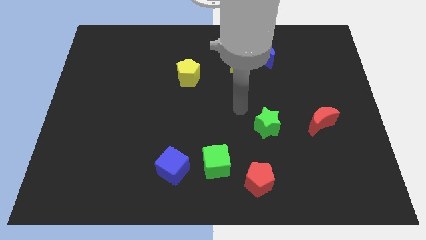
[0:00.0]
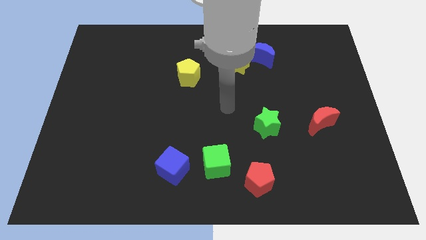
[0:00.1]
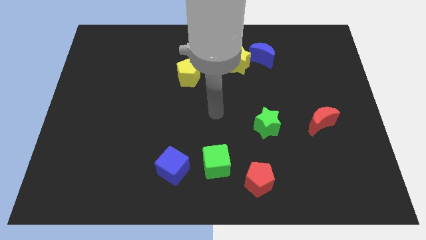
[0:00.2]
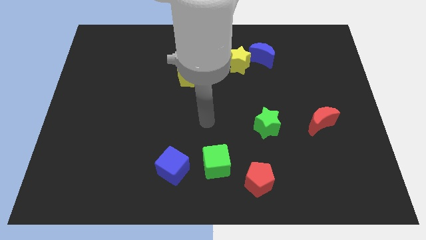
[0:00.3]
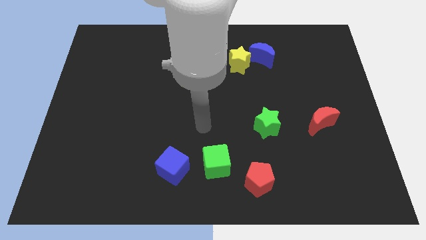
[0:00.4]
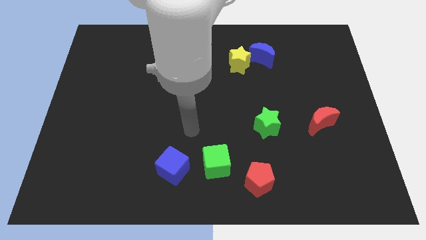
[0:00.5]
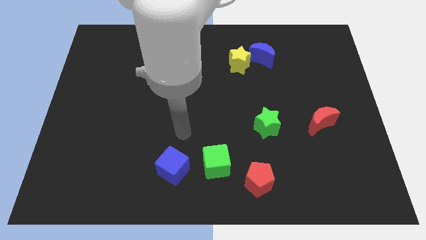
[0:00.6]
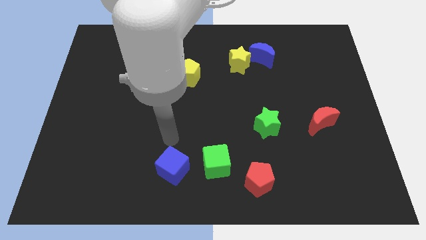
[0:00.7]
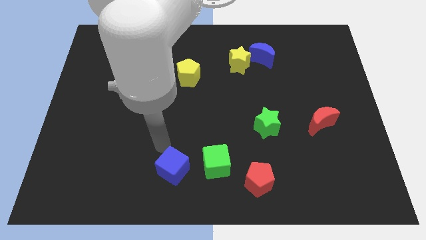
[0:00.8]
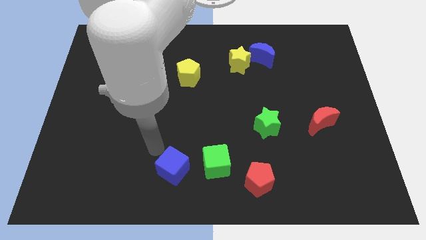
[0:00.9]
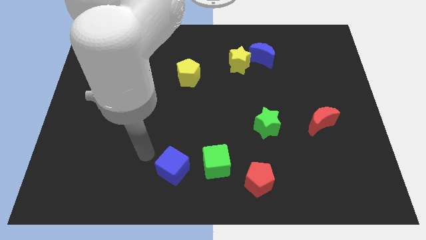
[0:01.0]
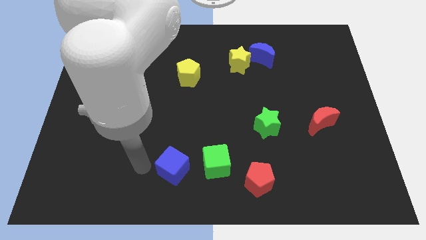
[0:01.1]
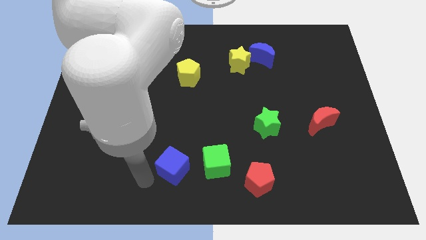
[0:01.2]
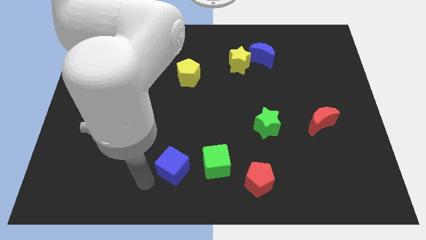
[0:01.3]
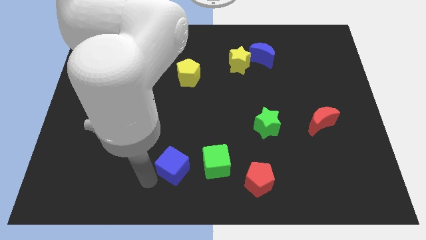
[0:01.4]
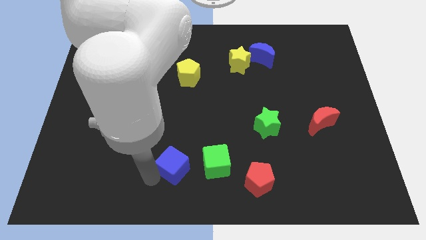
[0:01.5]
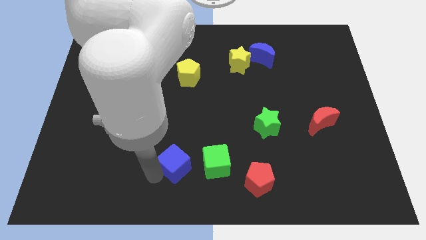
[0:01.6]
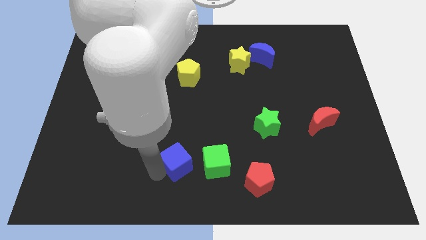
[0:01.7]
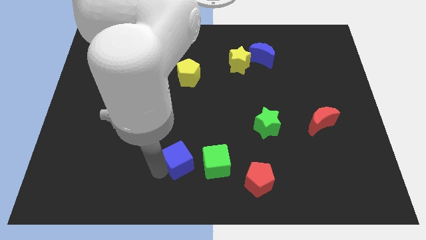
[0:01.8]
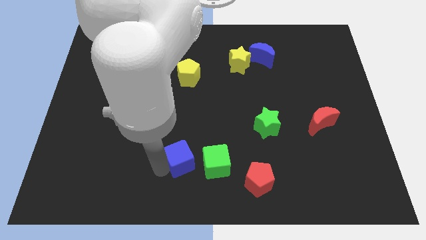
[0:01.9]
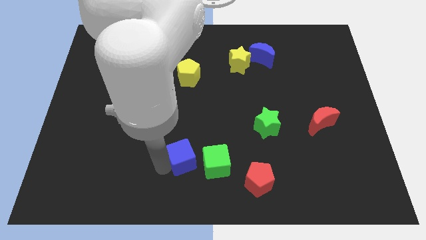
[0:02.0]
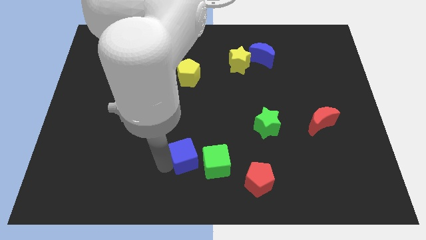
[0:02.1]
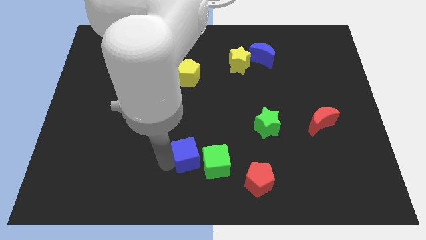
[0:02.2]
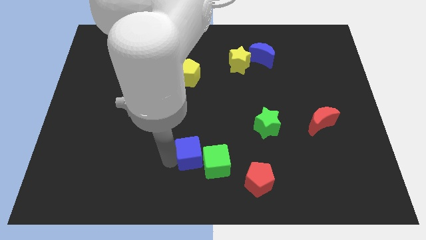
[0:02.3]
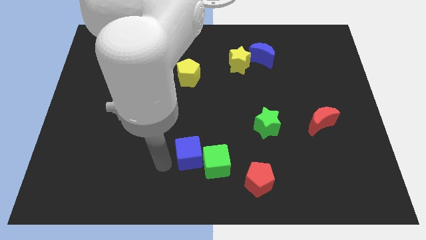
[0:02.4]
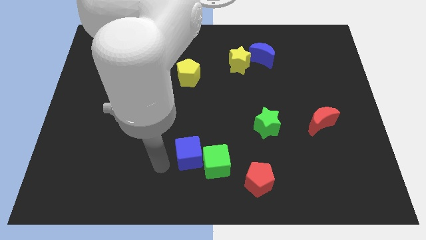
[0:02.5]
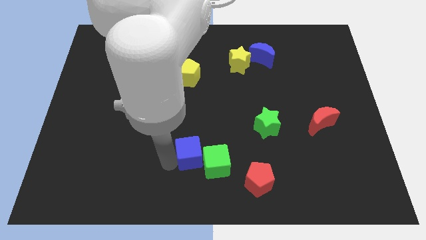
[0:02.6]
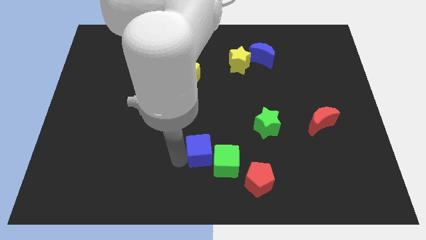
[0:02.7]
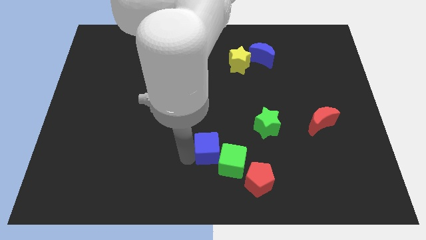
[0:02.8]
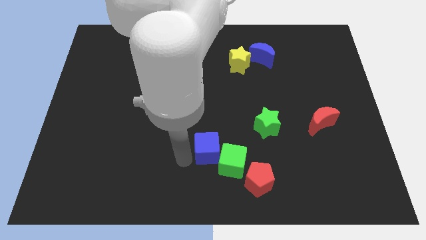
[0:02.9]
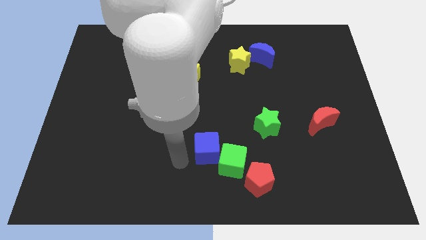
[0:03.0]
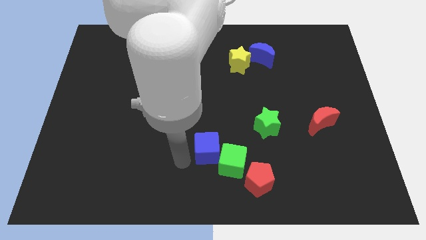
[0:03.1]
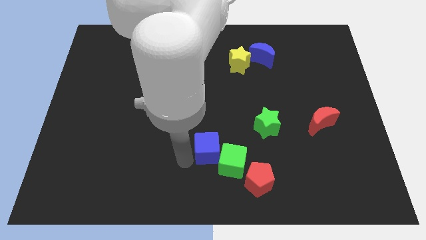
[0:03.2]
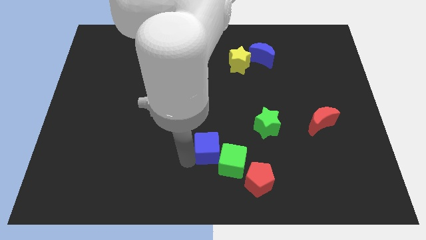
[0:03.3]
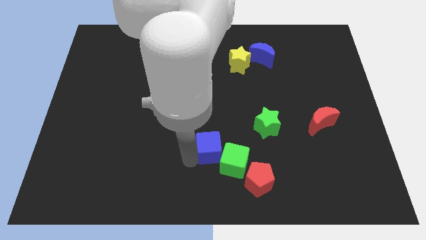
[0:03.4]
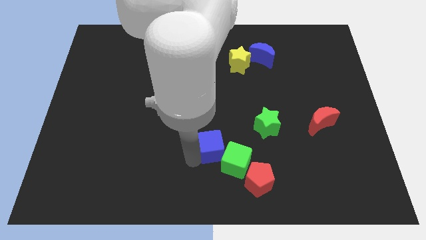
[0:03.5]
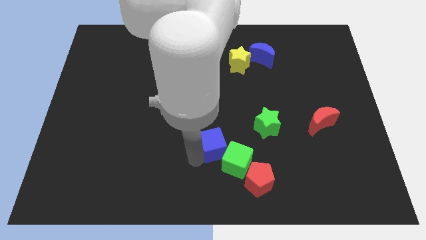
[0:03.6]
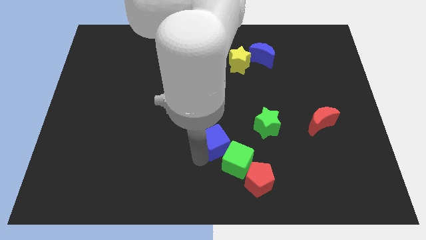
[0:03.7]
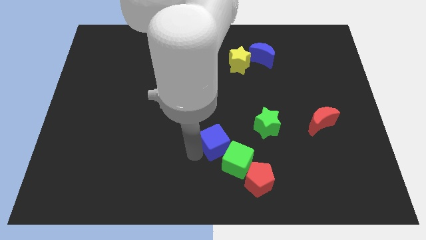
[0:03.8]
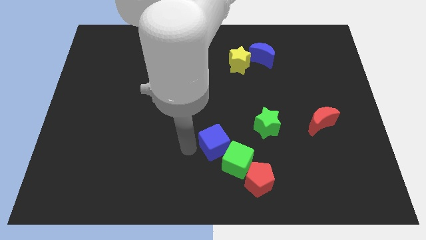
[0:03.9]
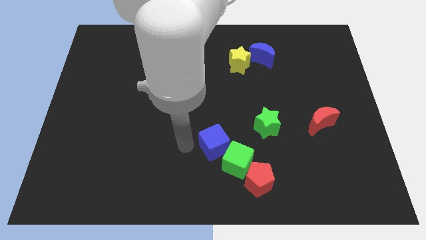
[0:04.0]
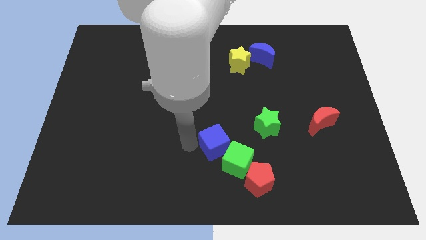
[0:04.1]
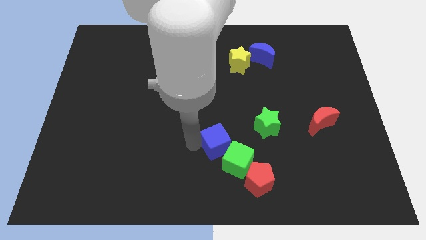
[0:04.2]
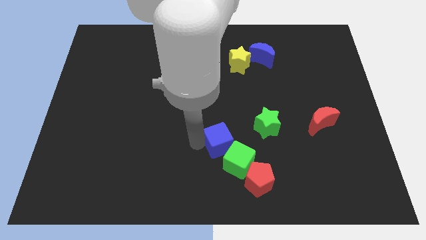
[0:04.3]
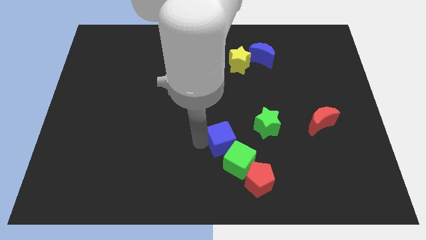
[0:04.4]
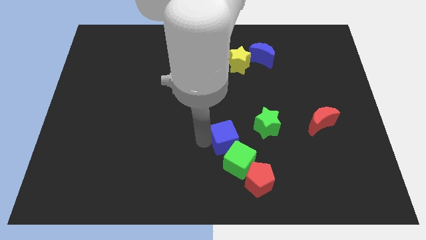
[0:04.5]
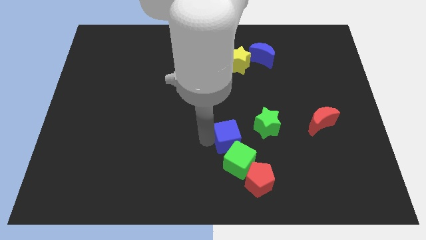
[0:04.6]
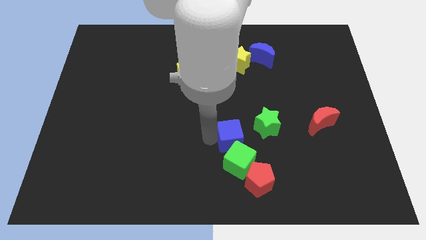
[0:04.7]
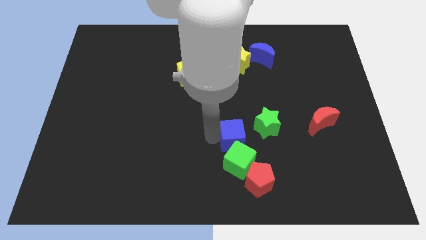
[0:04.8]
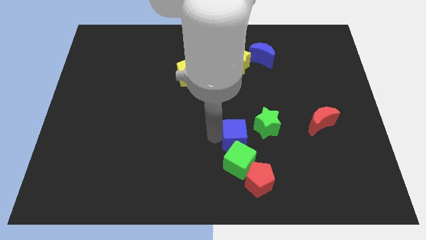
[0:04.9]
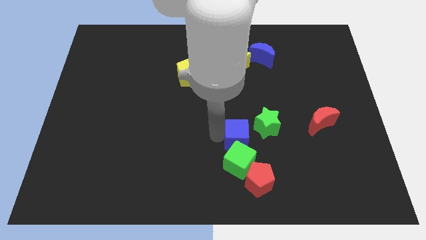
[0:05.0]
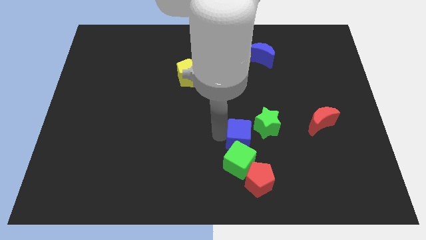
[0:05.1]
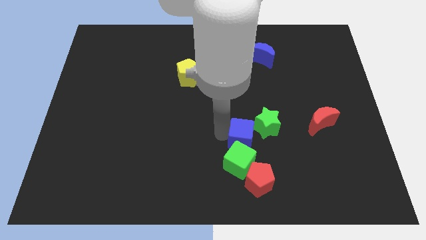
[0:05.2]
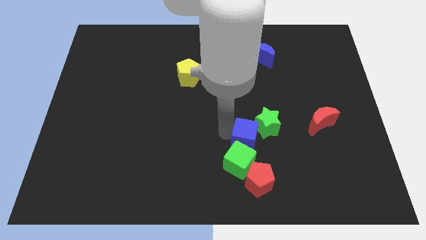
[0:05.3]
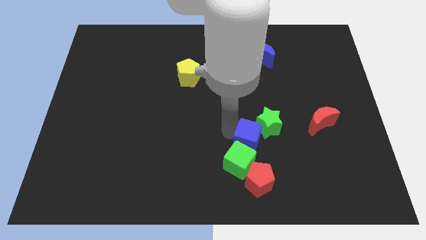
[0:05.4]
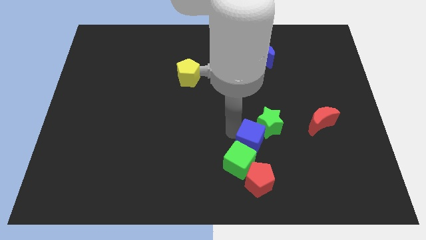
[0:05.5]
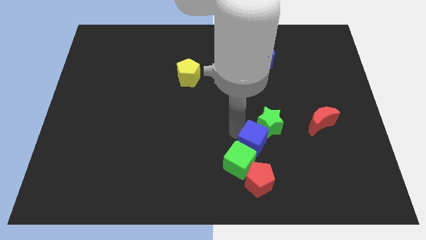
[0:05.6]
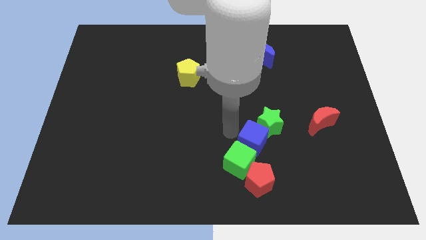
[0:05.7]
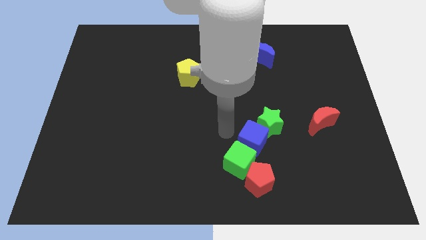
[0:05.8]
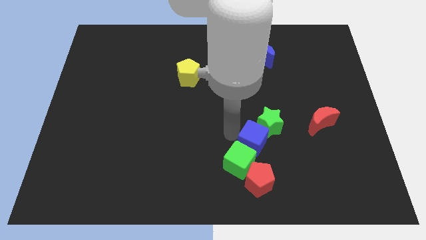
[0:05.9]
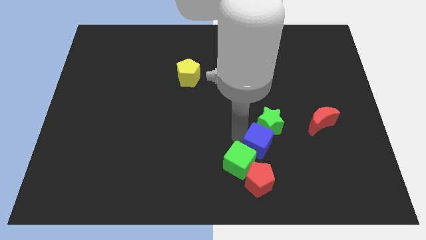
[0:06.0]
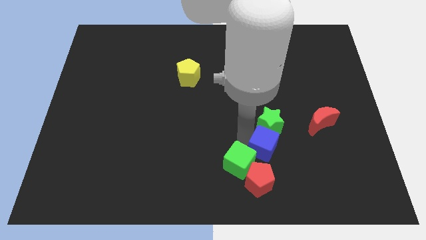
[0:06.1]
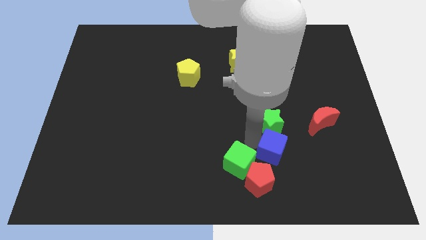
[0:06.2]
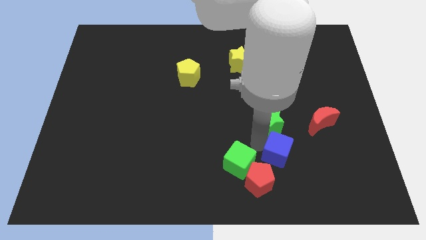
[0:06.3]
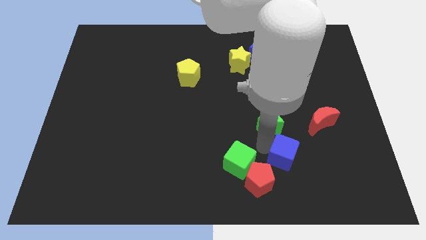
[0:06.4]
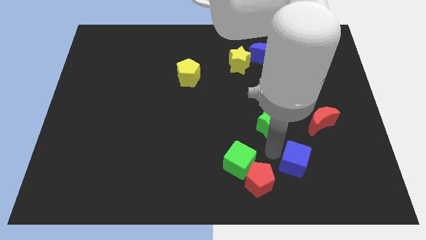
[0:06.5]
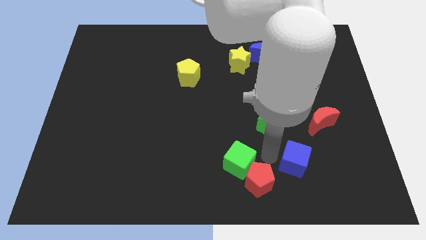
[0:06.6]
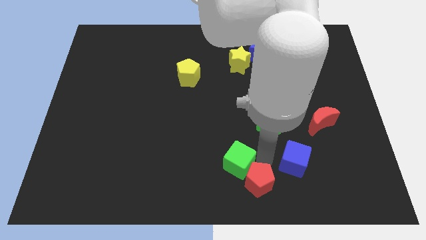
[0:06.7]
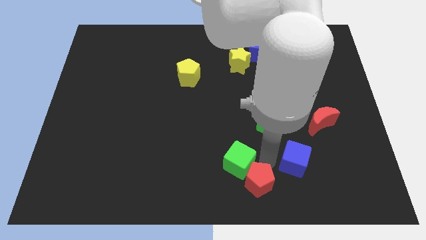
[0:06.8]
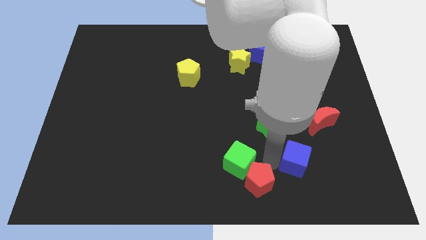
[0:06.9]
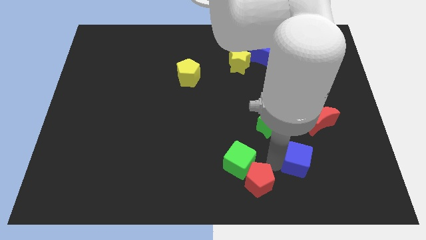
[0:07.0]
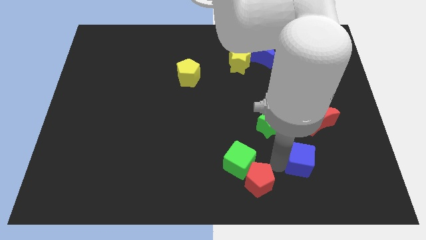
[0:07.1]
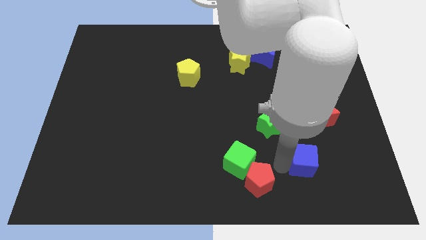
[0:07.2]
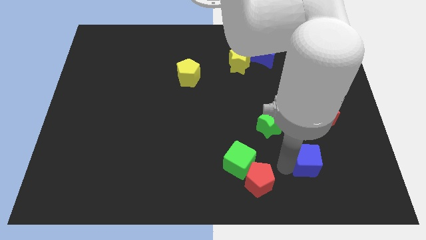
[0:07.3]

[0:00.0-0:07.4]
slide the blue cube to the bottom of the red moon
